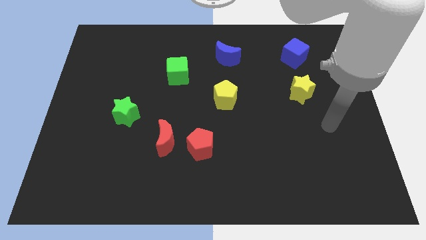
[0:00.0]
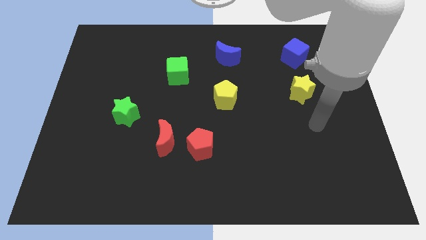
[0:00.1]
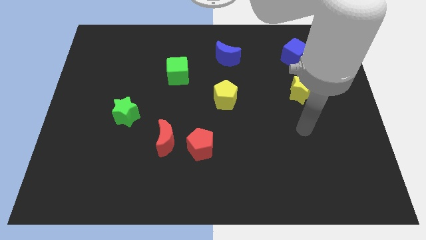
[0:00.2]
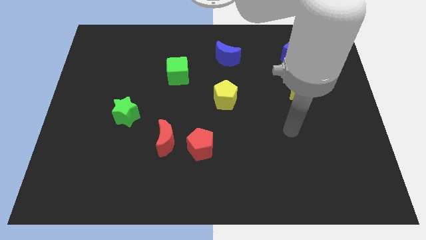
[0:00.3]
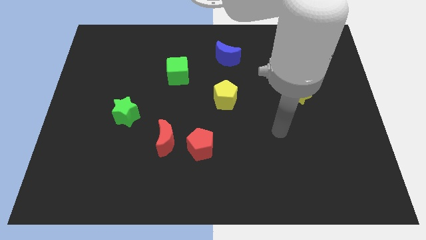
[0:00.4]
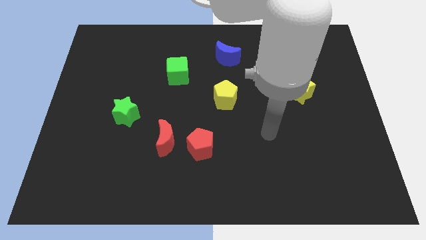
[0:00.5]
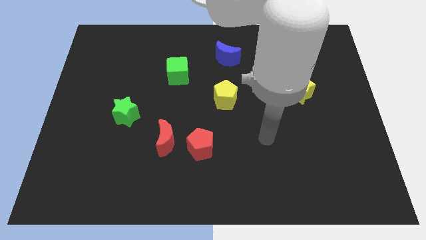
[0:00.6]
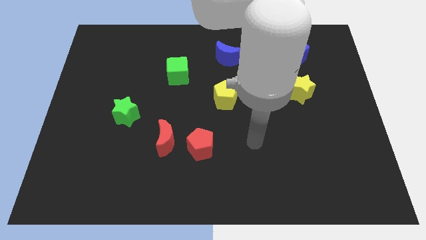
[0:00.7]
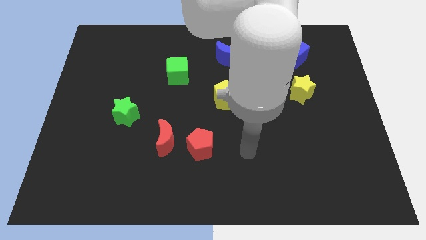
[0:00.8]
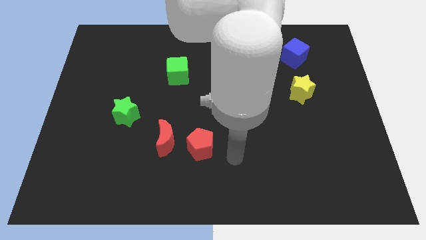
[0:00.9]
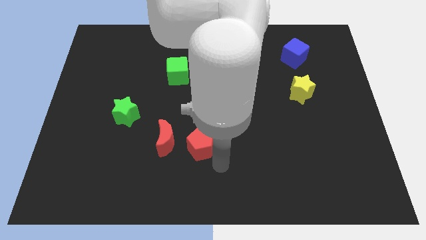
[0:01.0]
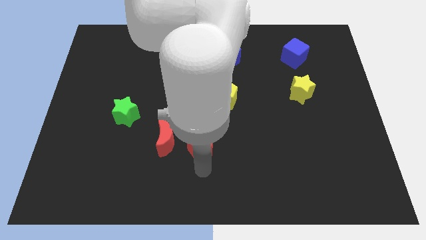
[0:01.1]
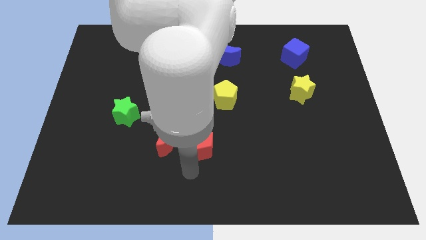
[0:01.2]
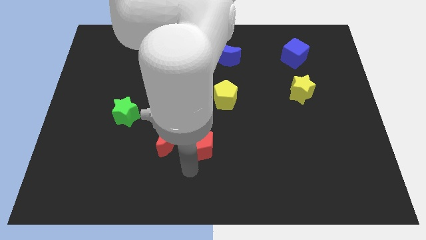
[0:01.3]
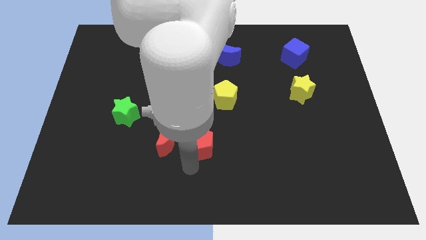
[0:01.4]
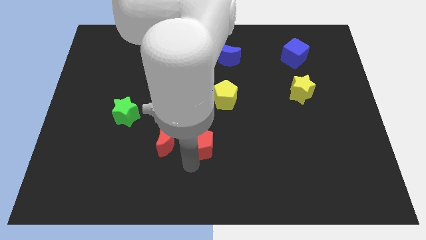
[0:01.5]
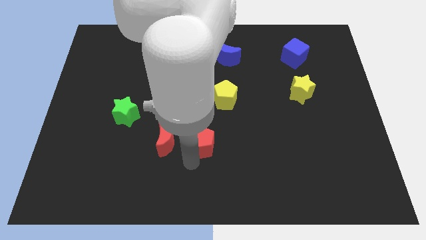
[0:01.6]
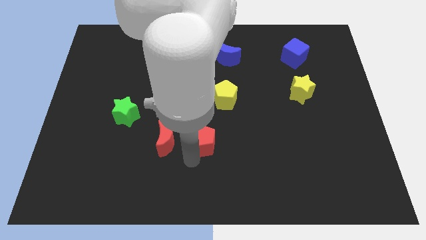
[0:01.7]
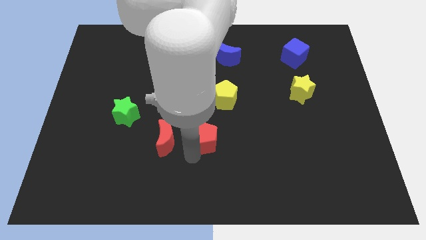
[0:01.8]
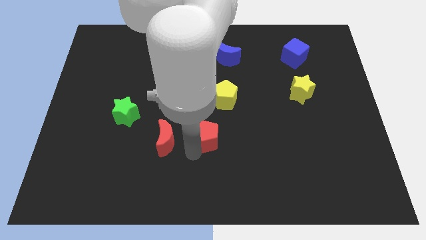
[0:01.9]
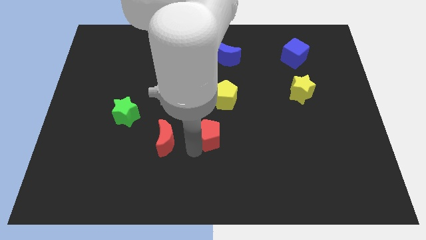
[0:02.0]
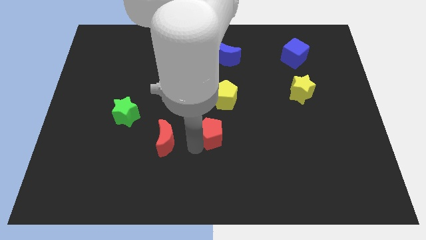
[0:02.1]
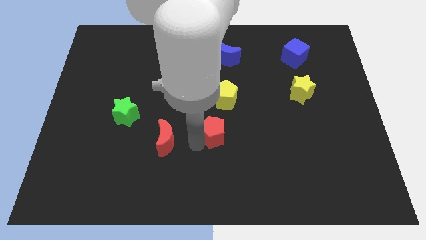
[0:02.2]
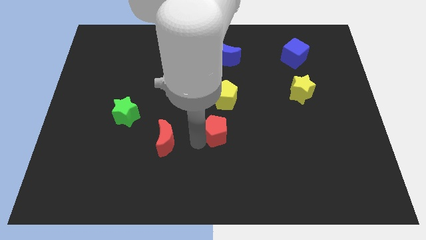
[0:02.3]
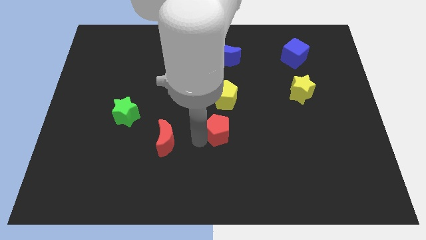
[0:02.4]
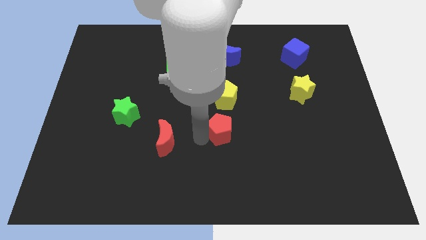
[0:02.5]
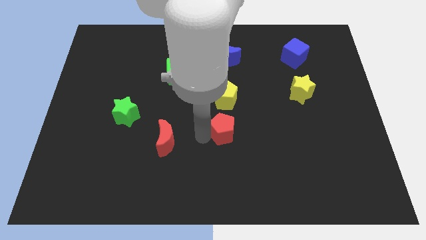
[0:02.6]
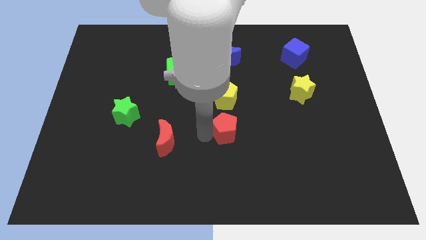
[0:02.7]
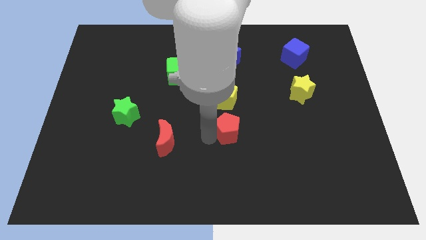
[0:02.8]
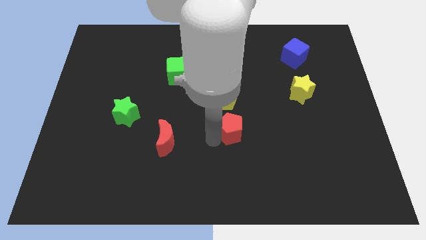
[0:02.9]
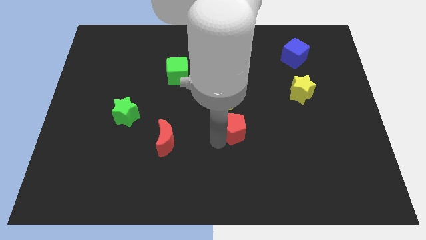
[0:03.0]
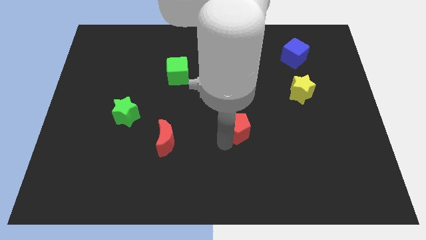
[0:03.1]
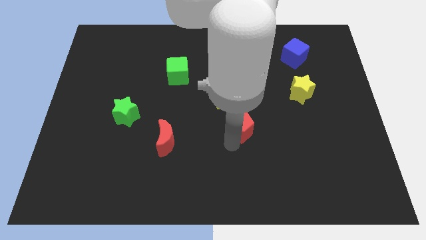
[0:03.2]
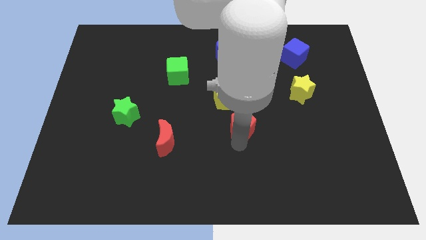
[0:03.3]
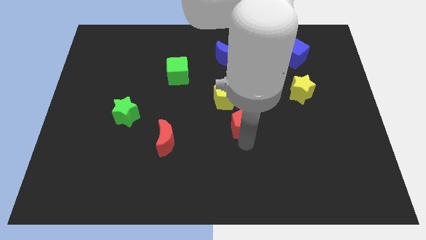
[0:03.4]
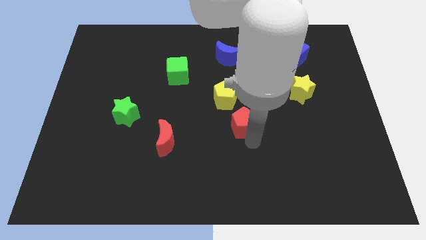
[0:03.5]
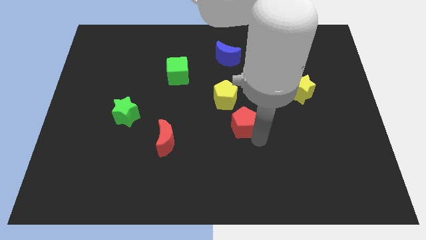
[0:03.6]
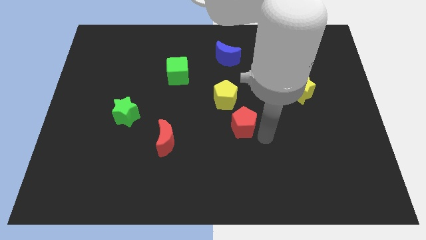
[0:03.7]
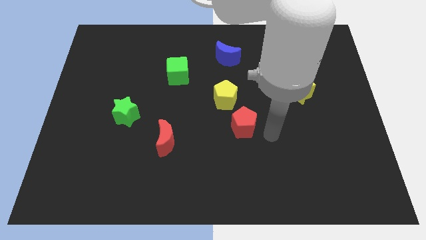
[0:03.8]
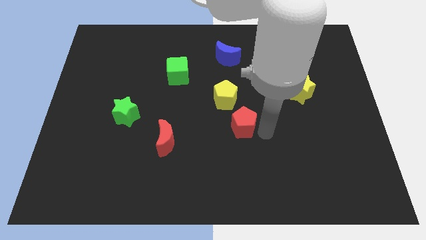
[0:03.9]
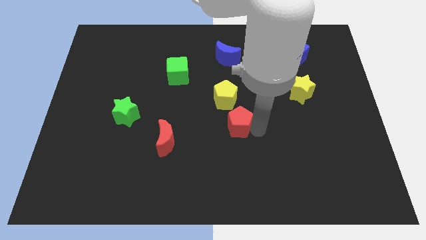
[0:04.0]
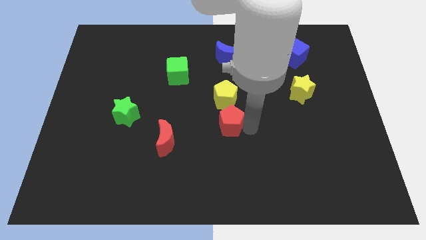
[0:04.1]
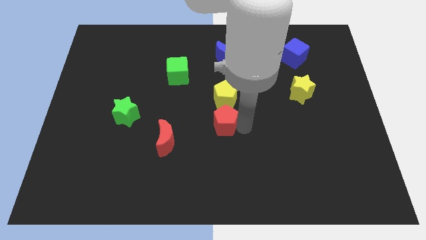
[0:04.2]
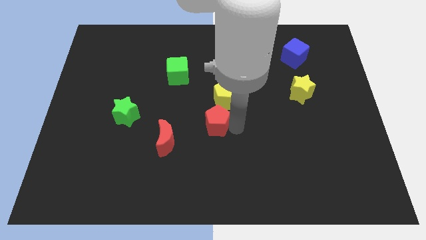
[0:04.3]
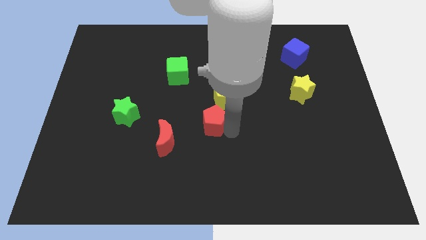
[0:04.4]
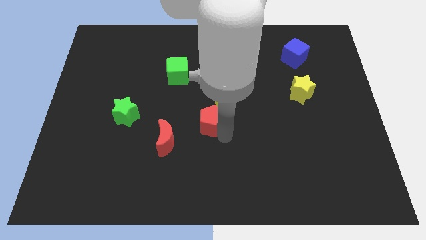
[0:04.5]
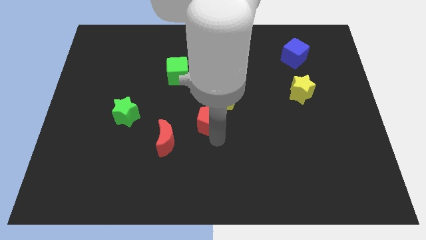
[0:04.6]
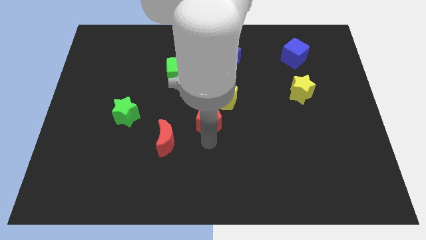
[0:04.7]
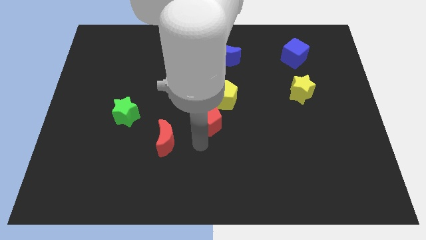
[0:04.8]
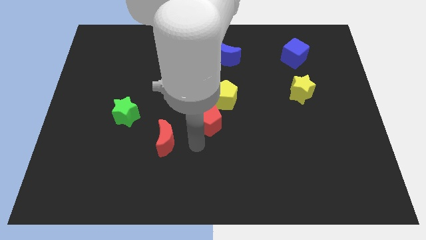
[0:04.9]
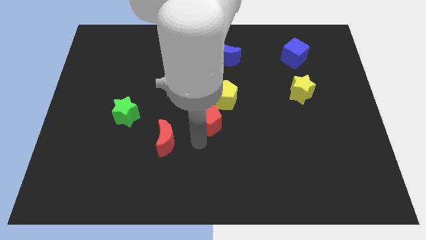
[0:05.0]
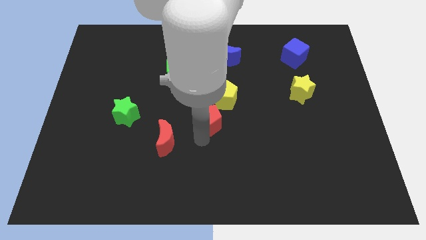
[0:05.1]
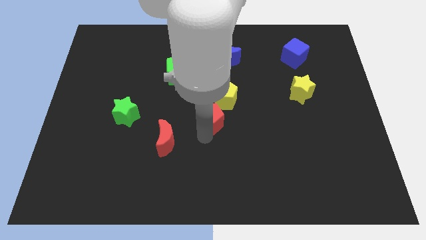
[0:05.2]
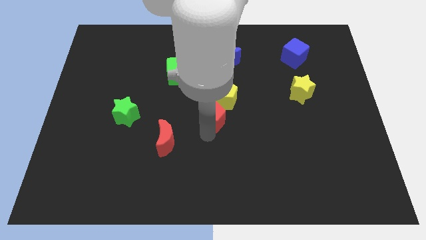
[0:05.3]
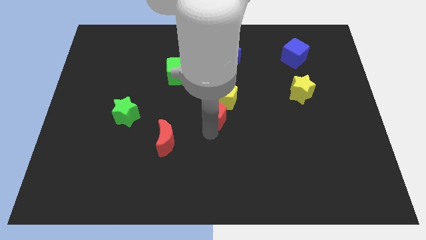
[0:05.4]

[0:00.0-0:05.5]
put the red pentagon next to the yellow pentagon

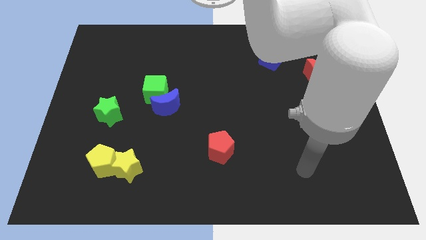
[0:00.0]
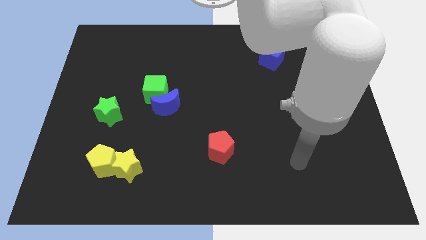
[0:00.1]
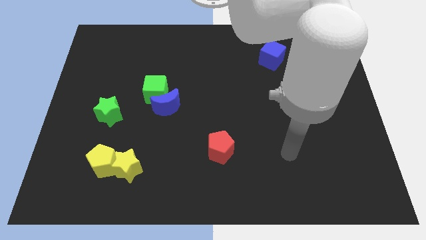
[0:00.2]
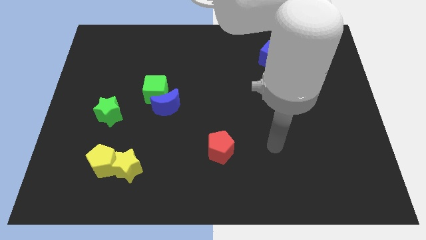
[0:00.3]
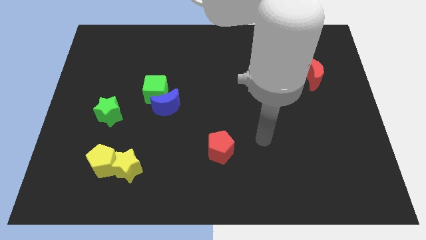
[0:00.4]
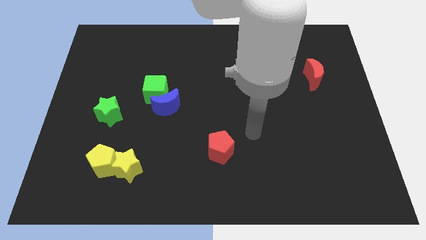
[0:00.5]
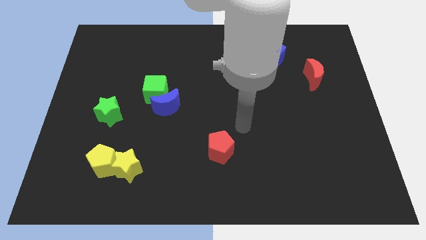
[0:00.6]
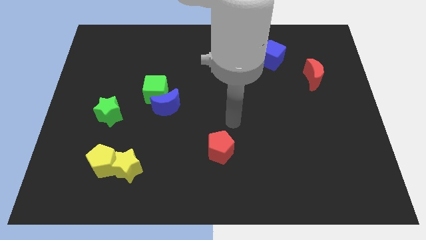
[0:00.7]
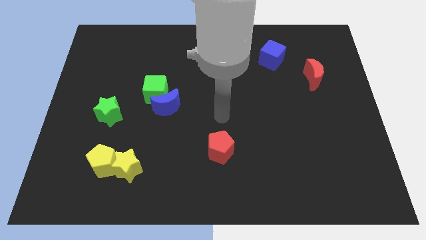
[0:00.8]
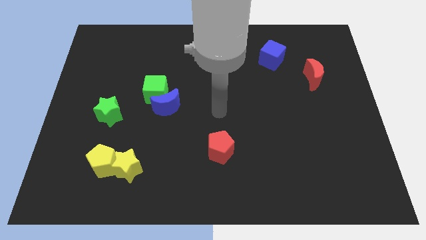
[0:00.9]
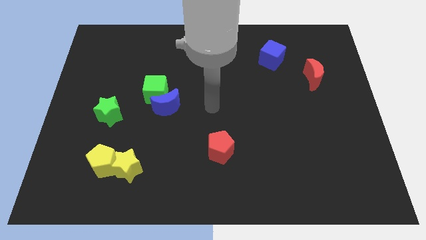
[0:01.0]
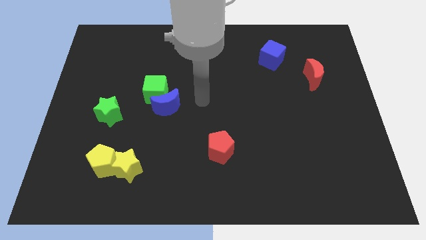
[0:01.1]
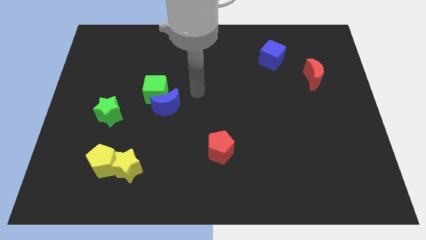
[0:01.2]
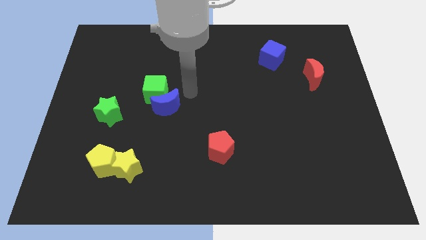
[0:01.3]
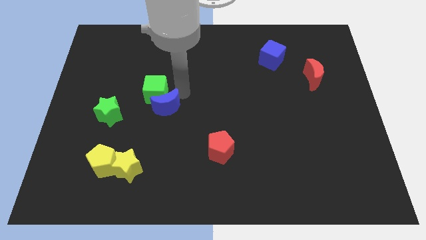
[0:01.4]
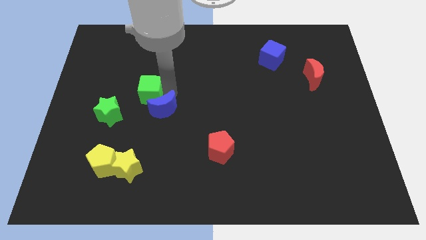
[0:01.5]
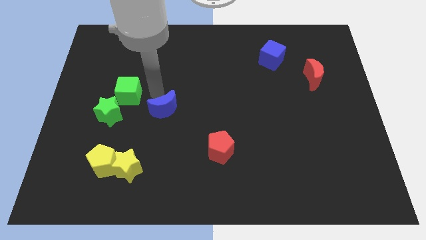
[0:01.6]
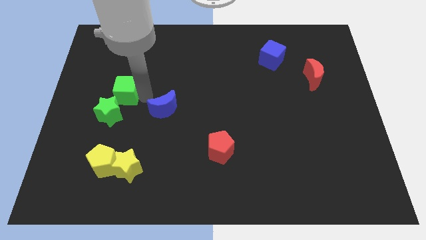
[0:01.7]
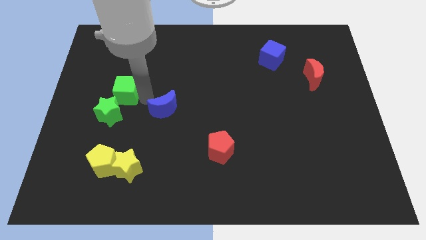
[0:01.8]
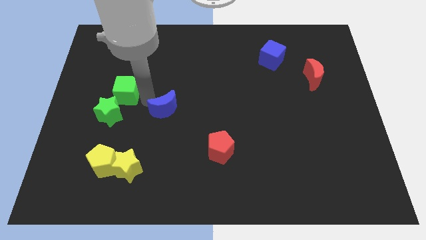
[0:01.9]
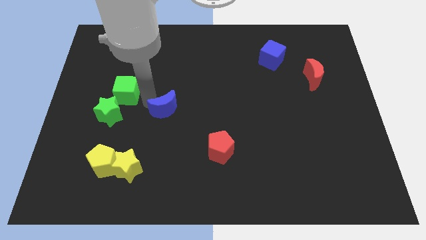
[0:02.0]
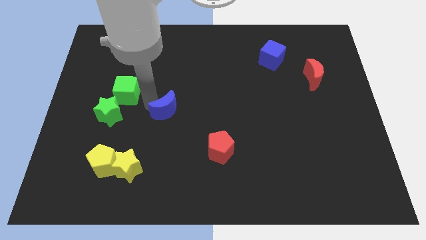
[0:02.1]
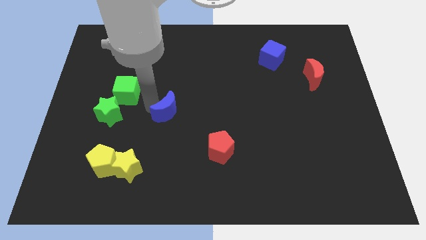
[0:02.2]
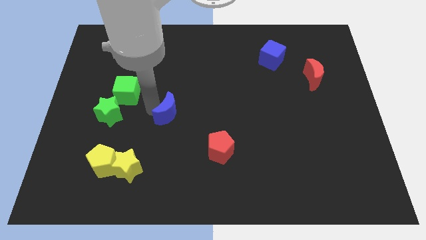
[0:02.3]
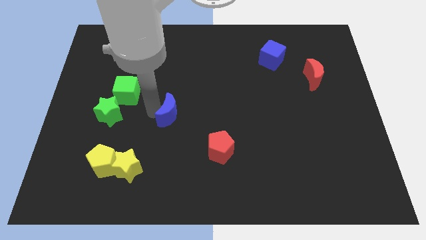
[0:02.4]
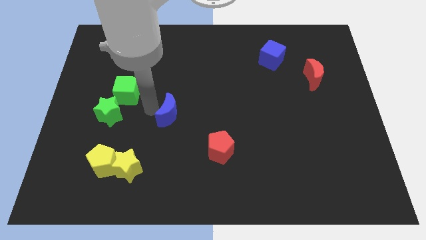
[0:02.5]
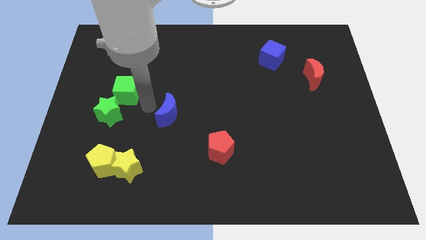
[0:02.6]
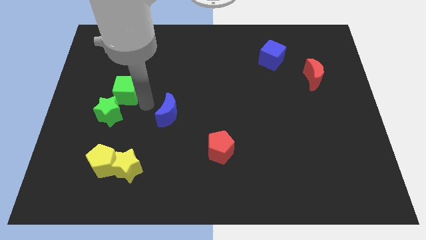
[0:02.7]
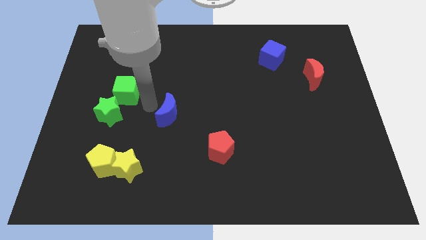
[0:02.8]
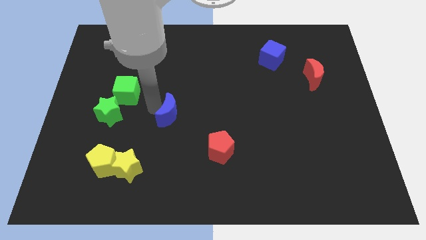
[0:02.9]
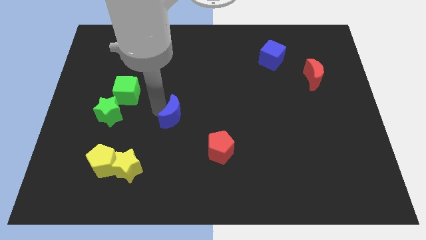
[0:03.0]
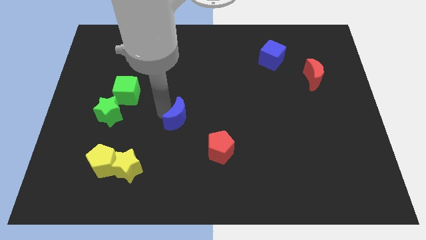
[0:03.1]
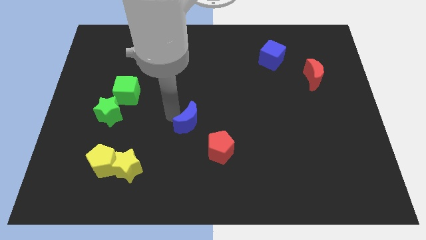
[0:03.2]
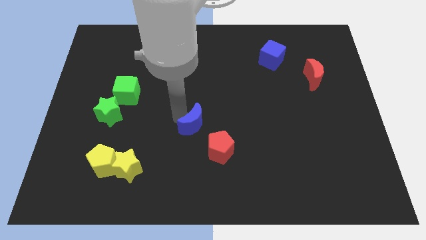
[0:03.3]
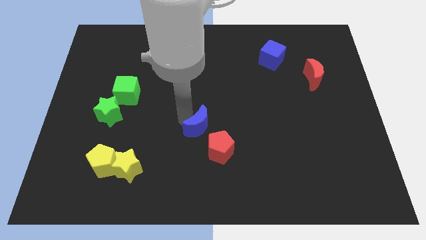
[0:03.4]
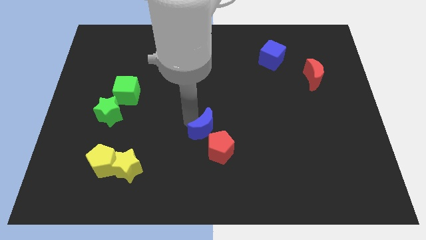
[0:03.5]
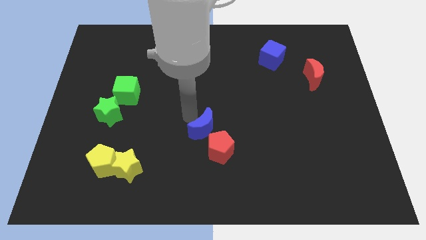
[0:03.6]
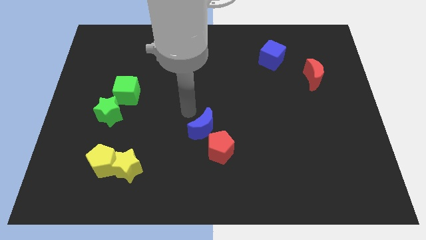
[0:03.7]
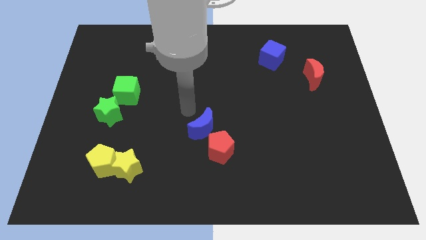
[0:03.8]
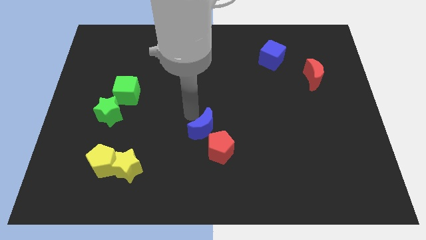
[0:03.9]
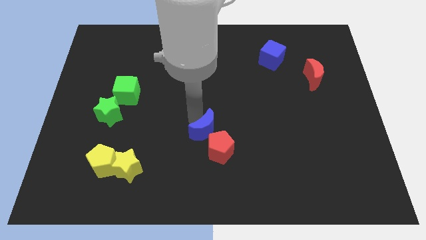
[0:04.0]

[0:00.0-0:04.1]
move the blue moon towards the red pentagon
